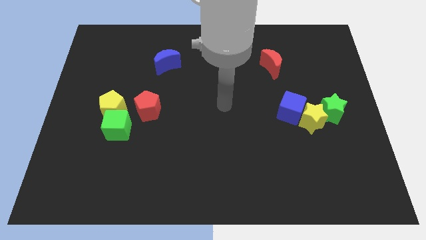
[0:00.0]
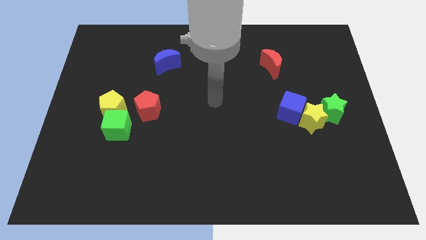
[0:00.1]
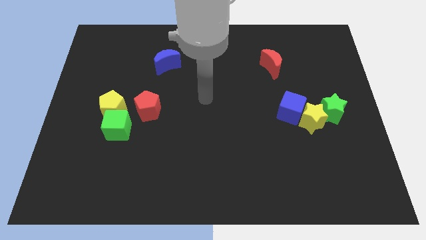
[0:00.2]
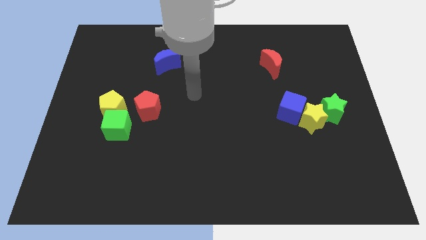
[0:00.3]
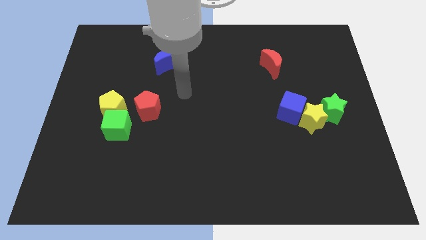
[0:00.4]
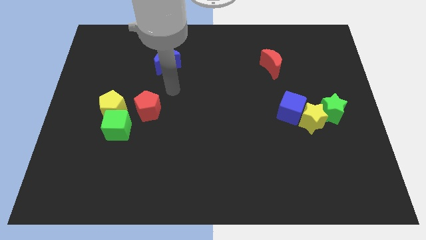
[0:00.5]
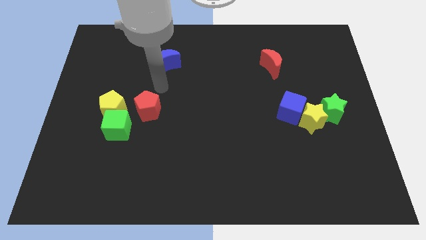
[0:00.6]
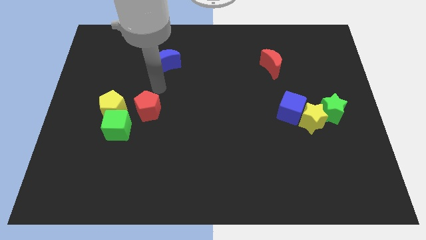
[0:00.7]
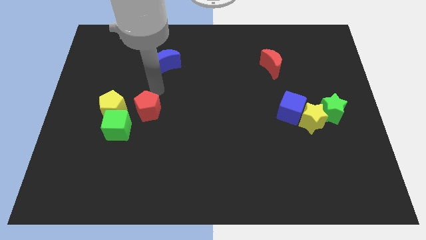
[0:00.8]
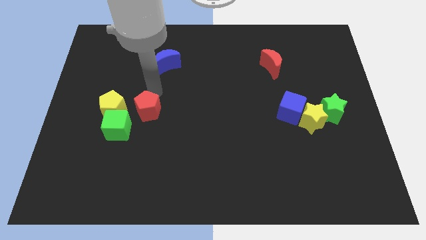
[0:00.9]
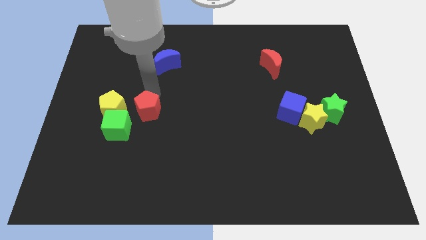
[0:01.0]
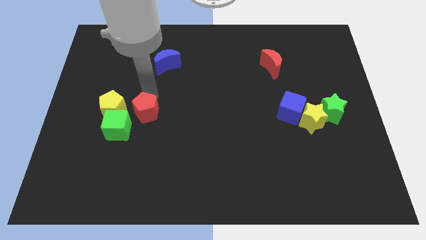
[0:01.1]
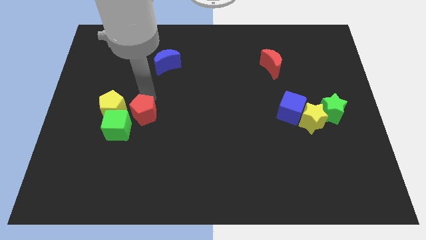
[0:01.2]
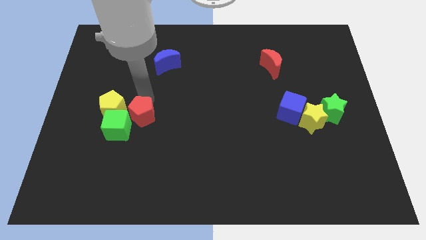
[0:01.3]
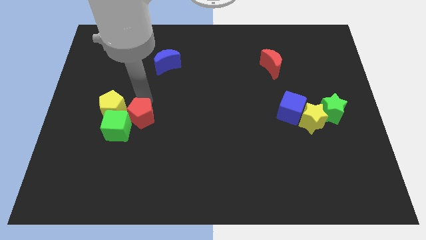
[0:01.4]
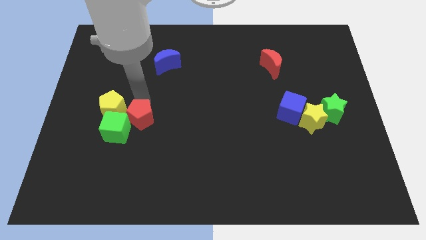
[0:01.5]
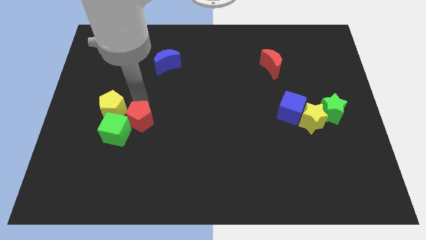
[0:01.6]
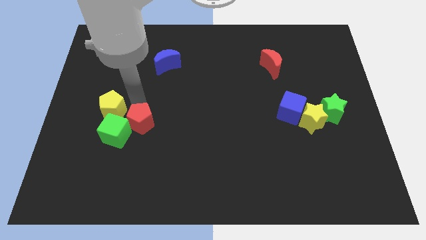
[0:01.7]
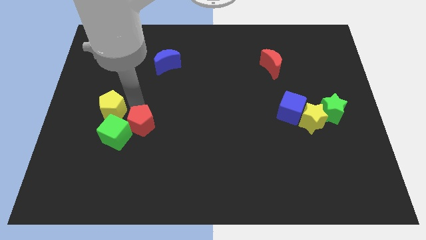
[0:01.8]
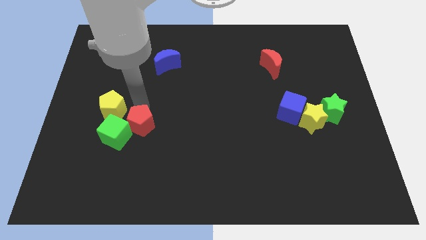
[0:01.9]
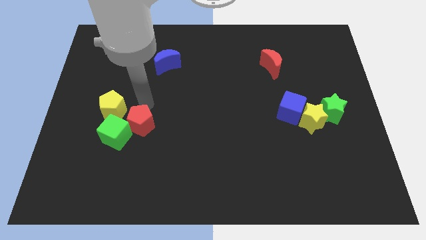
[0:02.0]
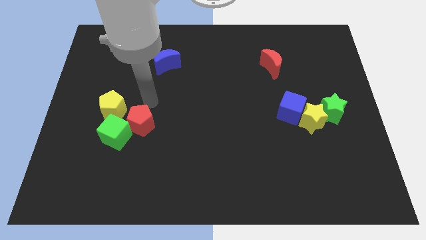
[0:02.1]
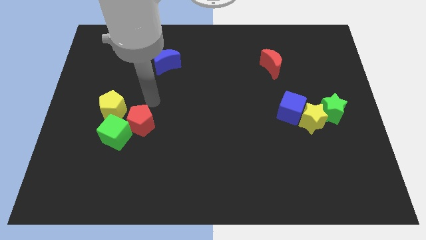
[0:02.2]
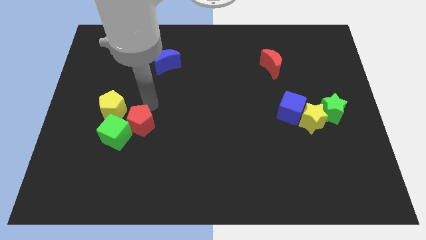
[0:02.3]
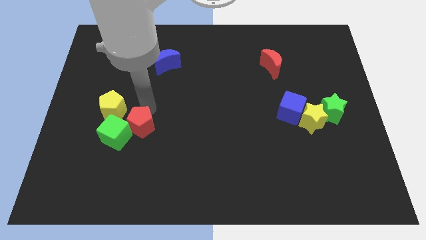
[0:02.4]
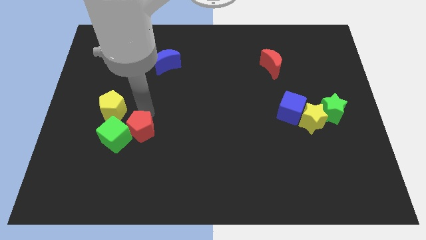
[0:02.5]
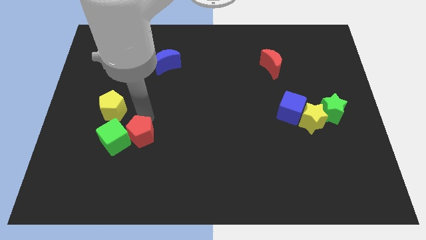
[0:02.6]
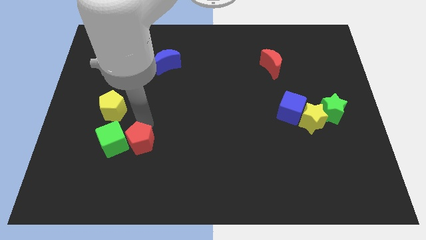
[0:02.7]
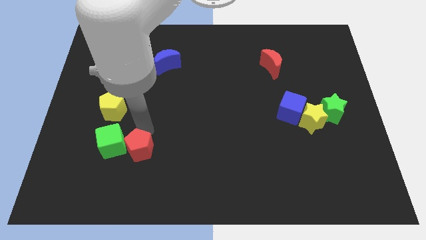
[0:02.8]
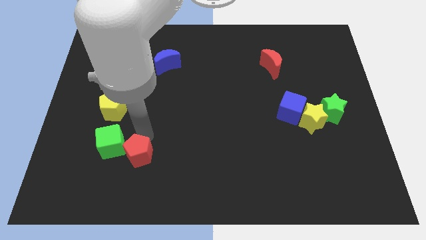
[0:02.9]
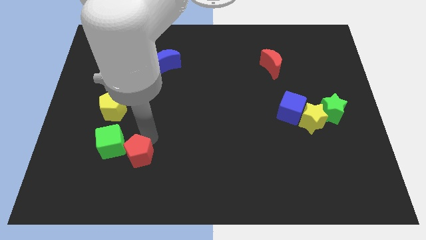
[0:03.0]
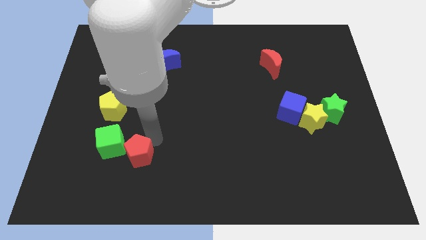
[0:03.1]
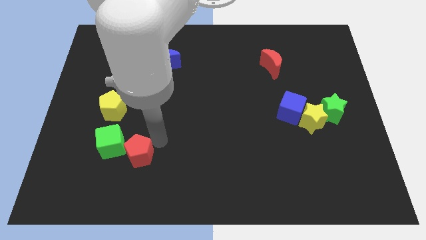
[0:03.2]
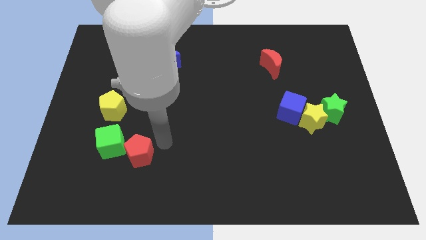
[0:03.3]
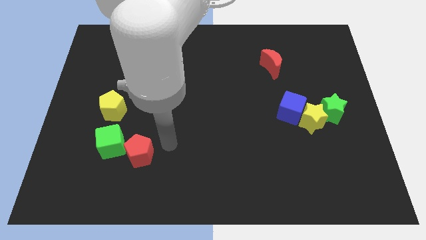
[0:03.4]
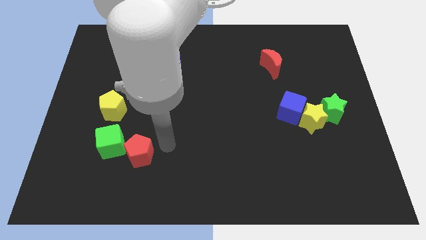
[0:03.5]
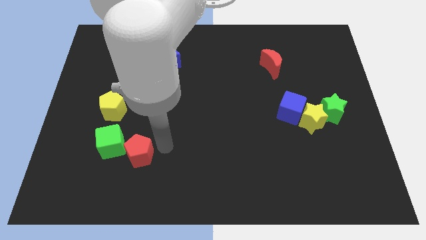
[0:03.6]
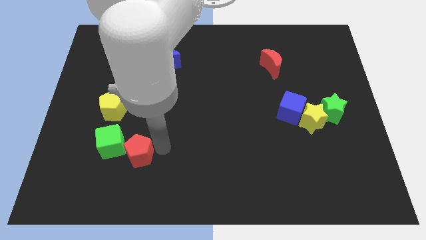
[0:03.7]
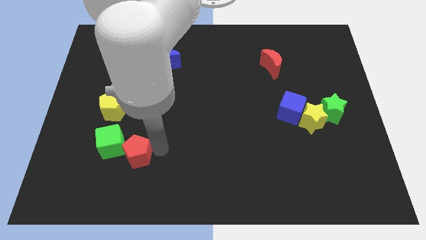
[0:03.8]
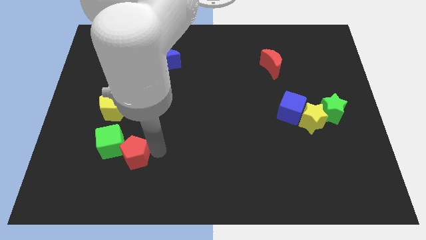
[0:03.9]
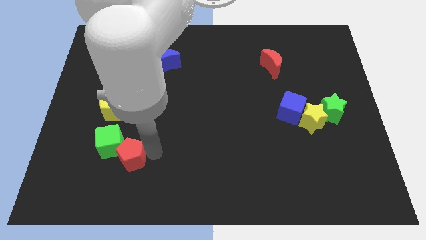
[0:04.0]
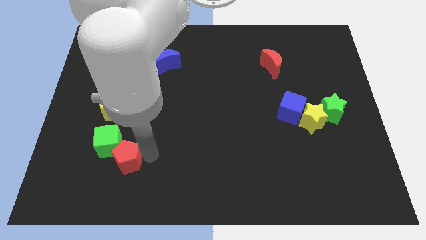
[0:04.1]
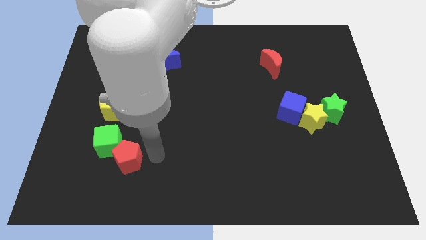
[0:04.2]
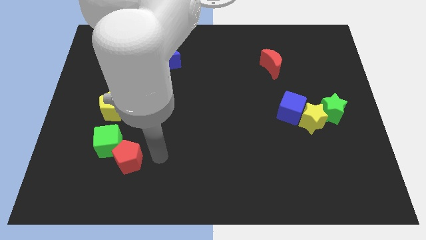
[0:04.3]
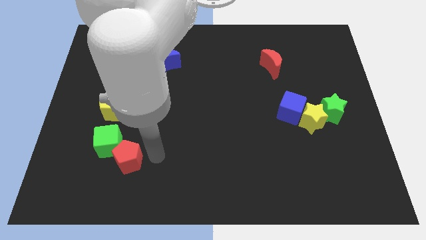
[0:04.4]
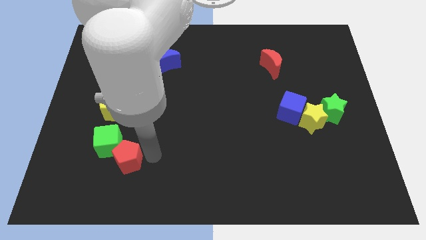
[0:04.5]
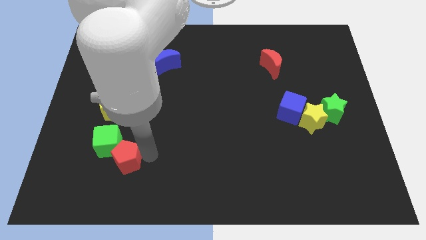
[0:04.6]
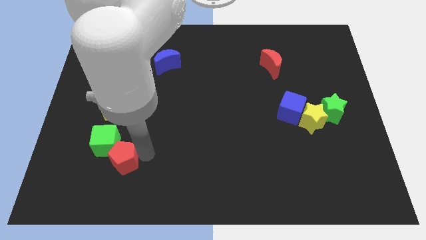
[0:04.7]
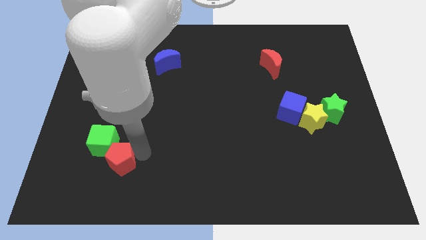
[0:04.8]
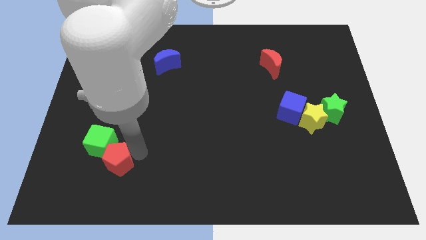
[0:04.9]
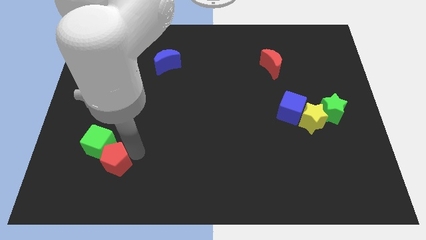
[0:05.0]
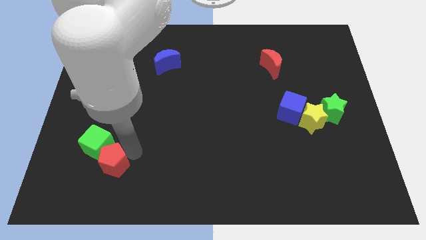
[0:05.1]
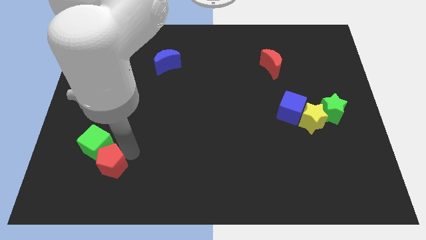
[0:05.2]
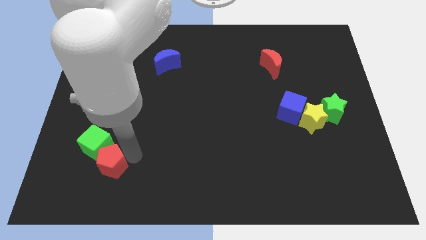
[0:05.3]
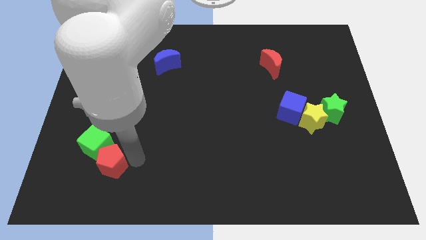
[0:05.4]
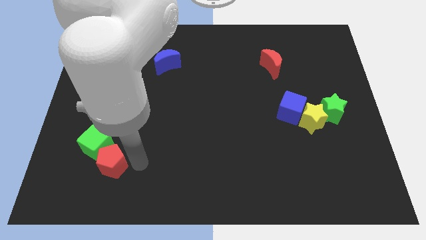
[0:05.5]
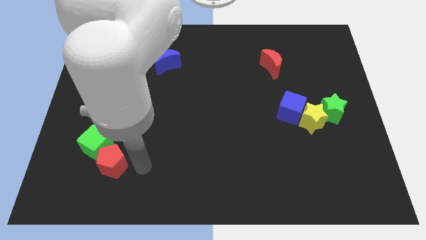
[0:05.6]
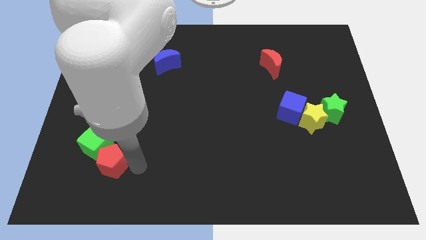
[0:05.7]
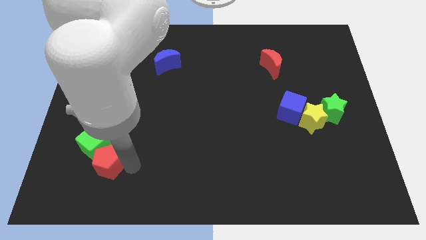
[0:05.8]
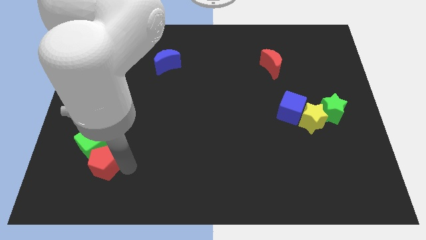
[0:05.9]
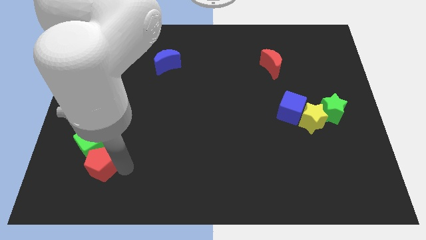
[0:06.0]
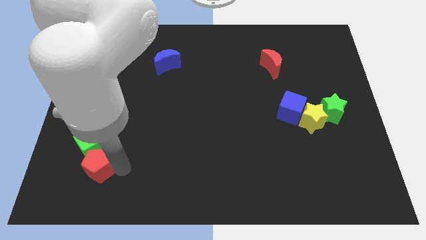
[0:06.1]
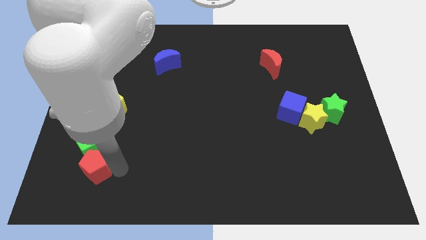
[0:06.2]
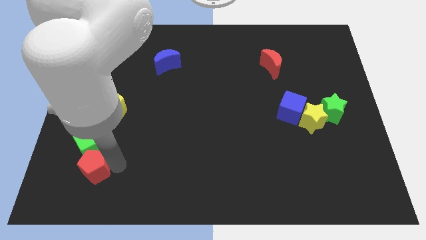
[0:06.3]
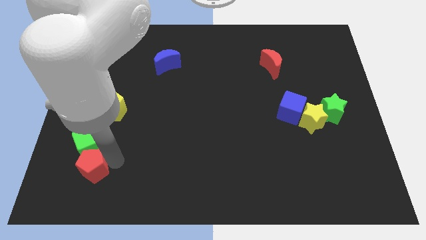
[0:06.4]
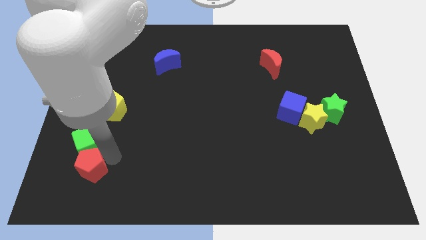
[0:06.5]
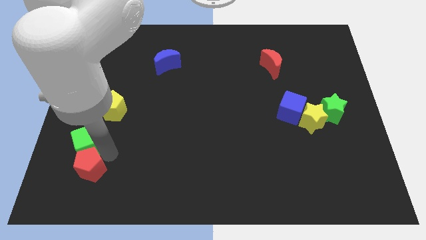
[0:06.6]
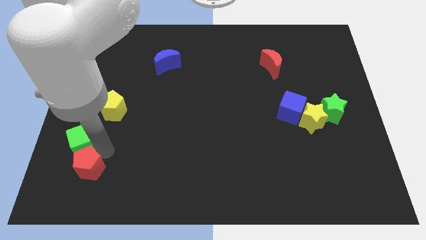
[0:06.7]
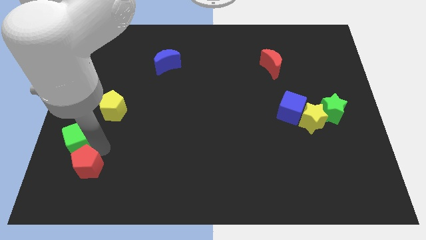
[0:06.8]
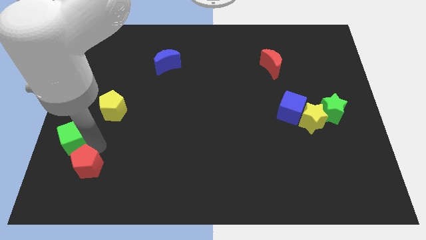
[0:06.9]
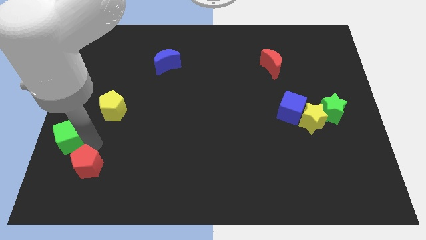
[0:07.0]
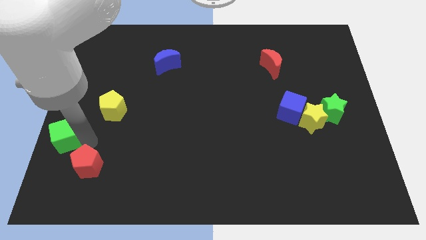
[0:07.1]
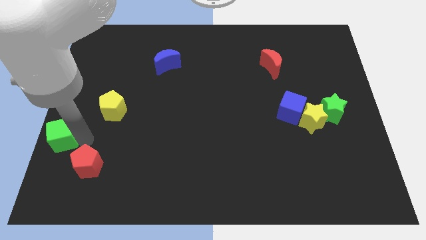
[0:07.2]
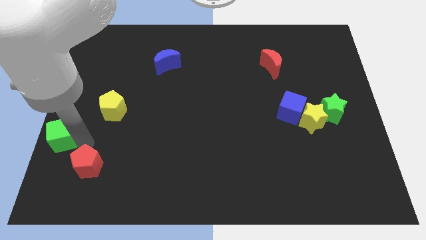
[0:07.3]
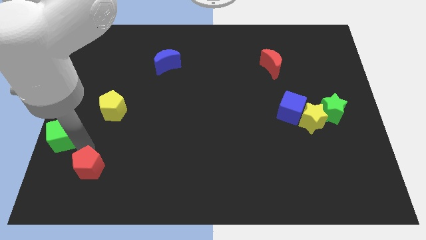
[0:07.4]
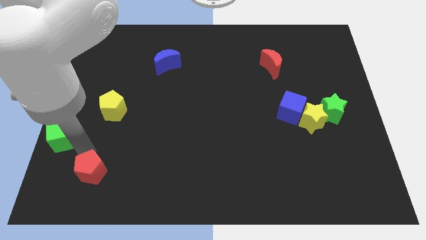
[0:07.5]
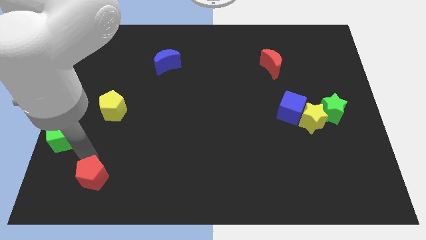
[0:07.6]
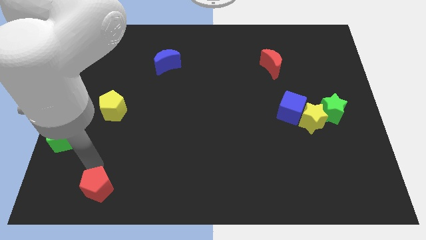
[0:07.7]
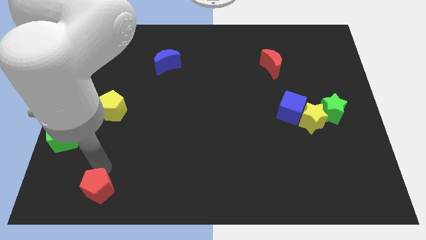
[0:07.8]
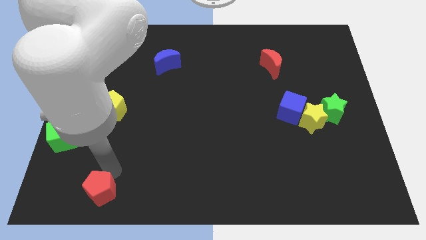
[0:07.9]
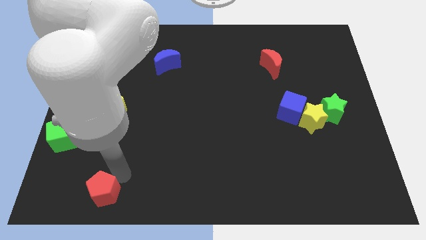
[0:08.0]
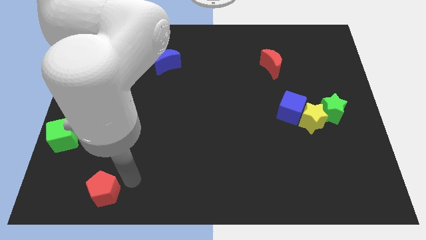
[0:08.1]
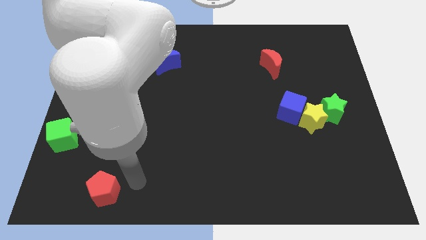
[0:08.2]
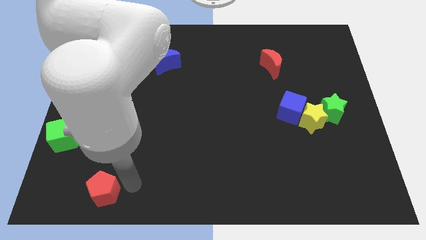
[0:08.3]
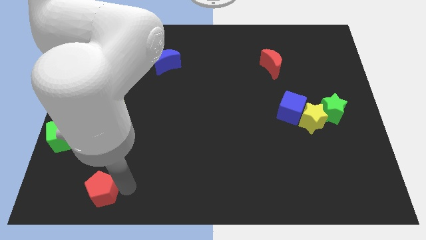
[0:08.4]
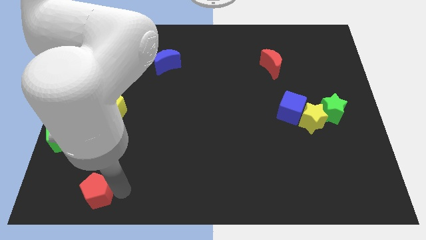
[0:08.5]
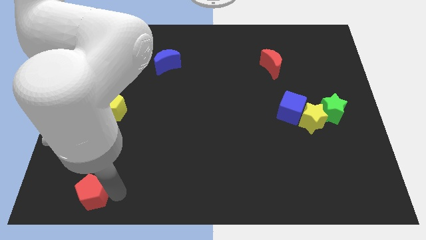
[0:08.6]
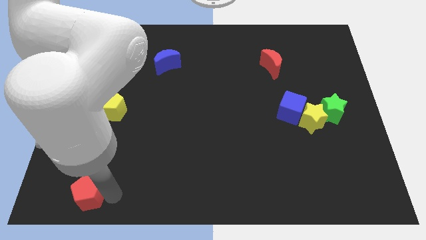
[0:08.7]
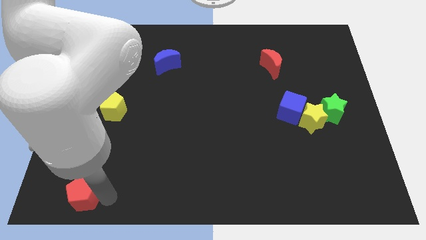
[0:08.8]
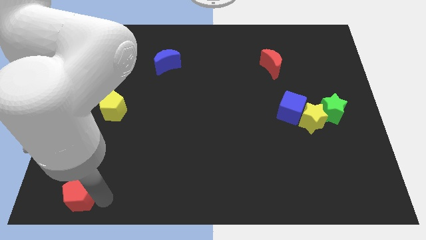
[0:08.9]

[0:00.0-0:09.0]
push the red pentagon to the lower left corner
